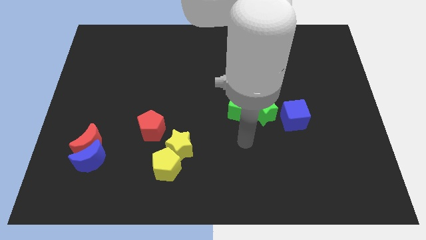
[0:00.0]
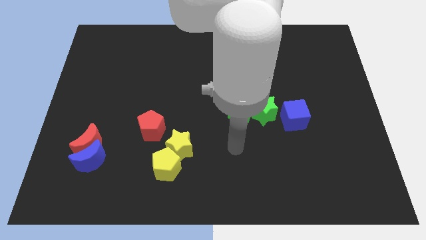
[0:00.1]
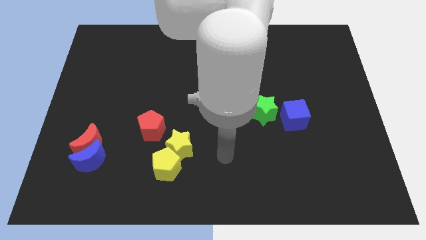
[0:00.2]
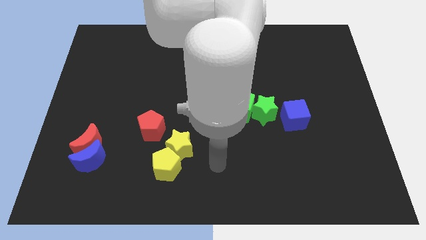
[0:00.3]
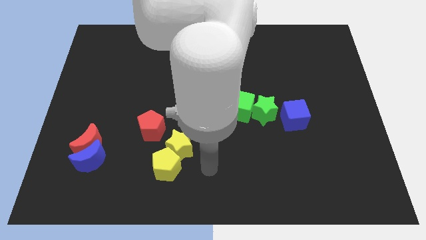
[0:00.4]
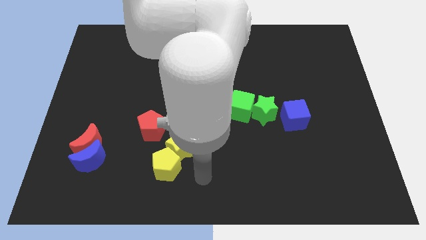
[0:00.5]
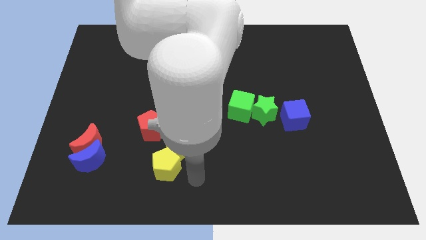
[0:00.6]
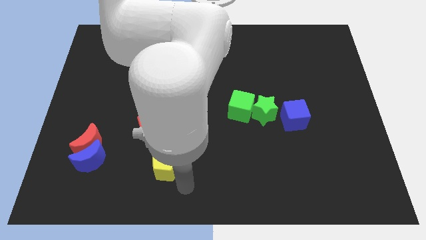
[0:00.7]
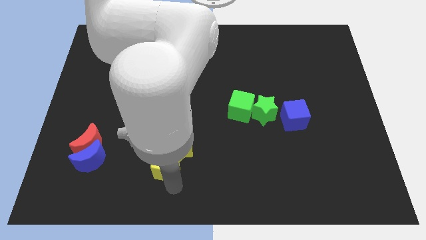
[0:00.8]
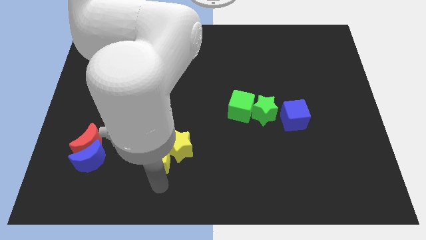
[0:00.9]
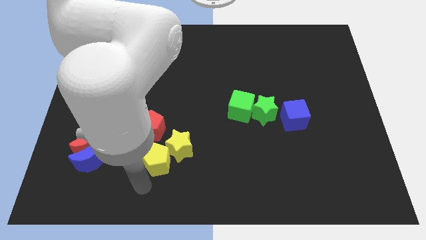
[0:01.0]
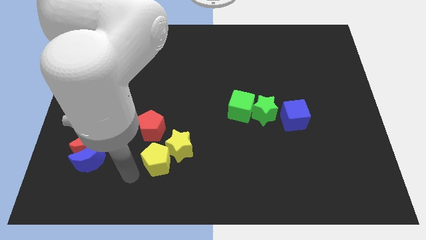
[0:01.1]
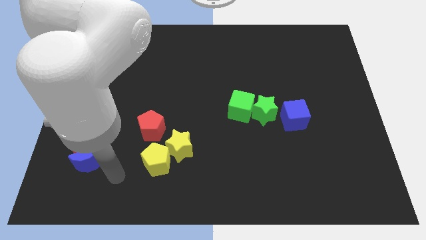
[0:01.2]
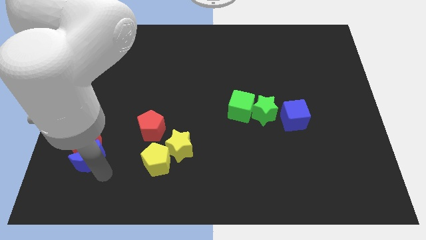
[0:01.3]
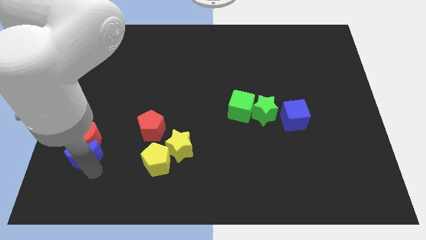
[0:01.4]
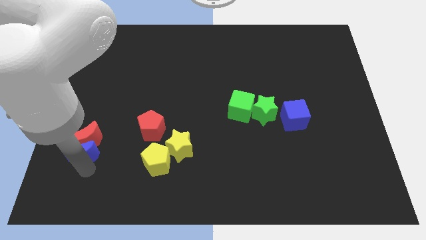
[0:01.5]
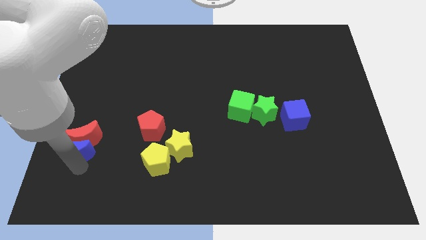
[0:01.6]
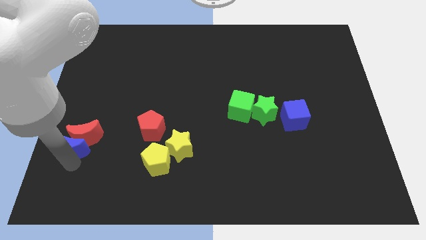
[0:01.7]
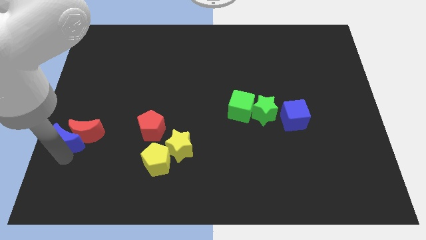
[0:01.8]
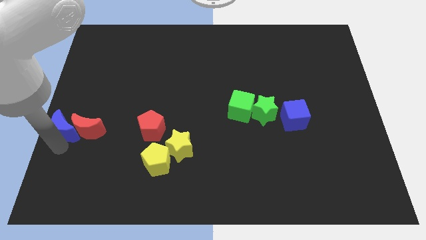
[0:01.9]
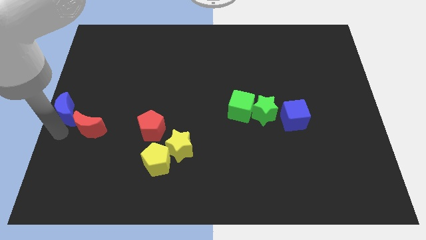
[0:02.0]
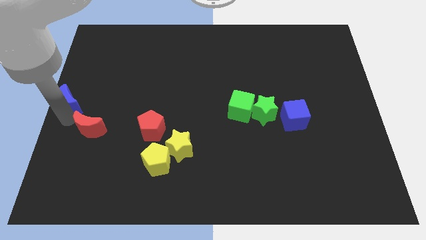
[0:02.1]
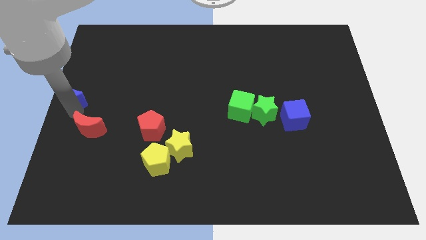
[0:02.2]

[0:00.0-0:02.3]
pull the red moon apart from the blue moon

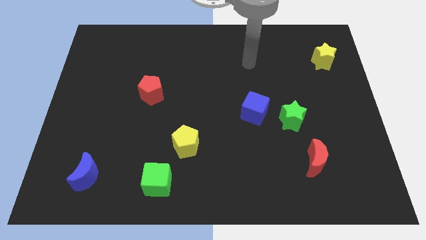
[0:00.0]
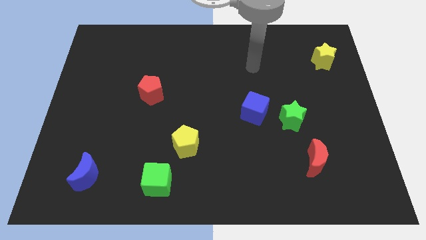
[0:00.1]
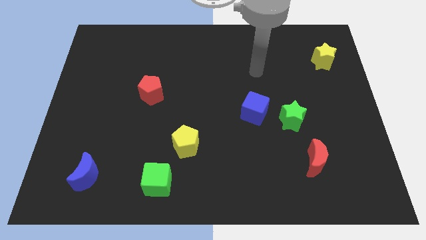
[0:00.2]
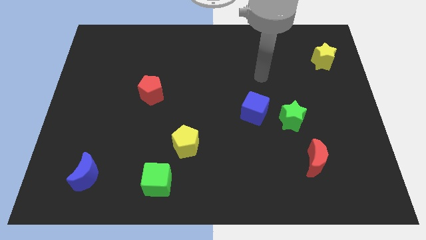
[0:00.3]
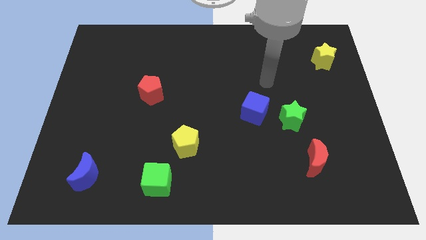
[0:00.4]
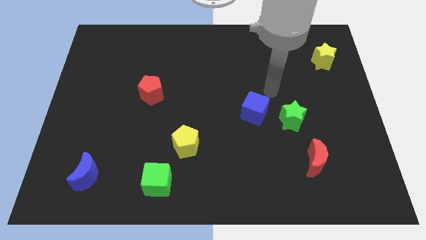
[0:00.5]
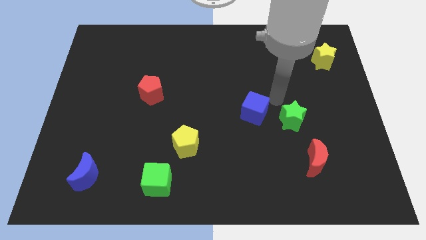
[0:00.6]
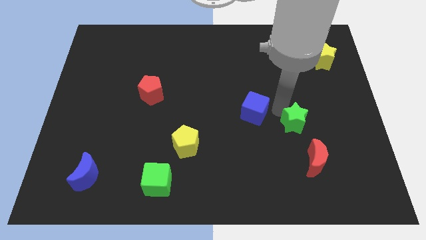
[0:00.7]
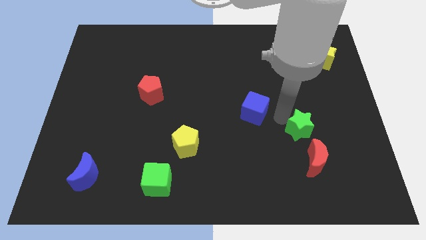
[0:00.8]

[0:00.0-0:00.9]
pull the blue cube apart from the green star

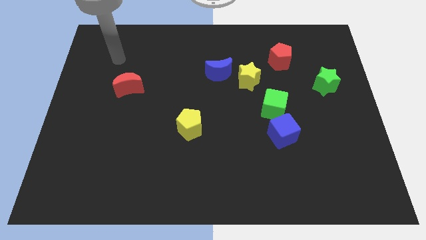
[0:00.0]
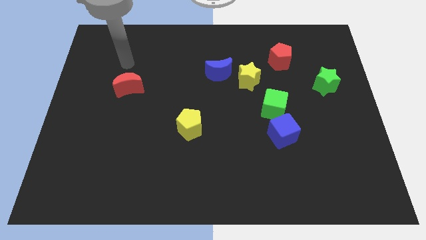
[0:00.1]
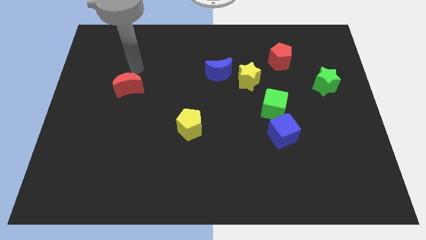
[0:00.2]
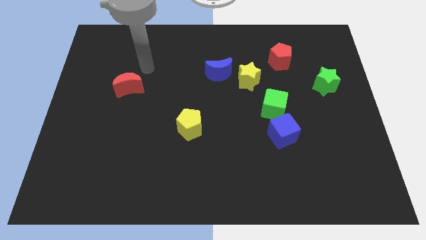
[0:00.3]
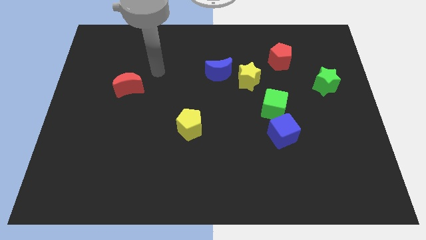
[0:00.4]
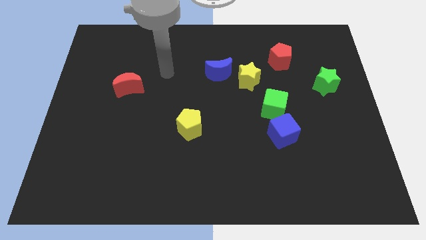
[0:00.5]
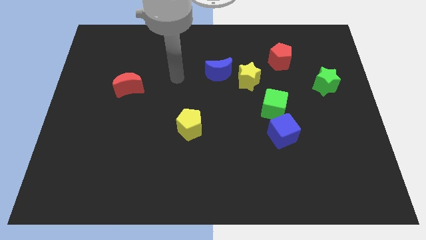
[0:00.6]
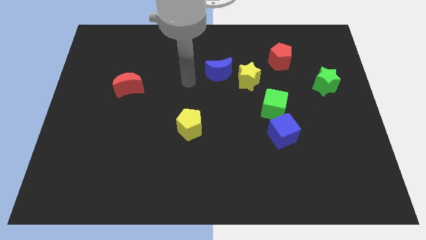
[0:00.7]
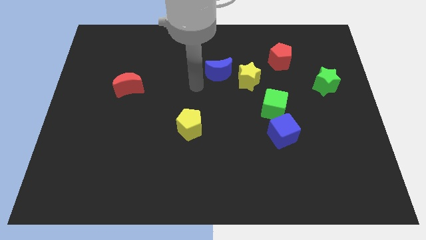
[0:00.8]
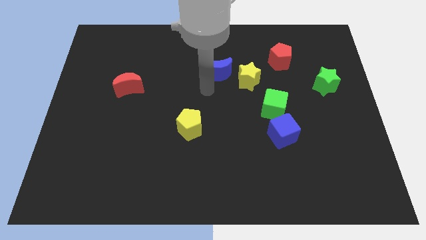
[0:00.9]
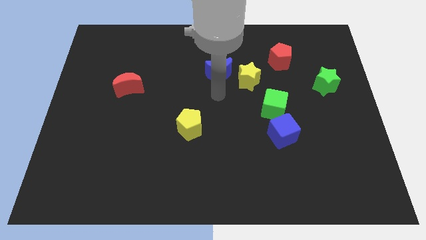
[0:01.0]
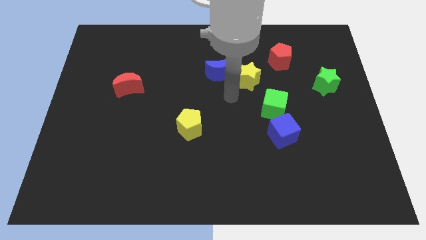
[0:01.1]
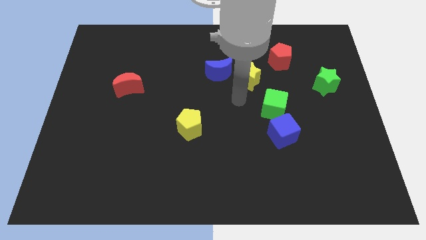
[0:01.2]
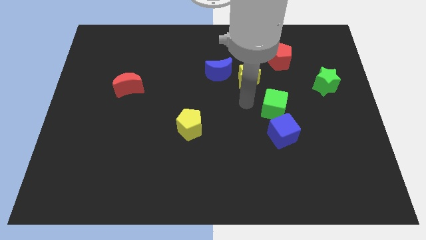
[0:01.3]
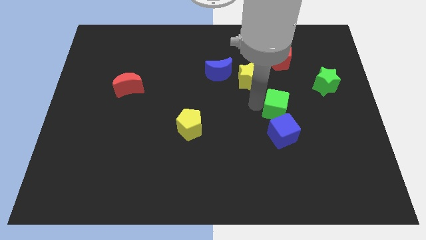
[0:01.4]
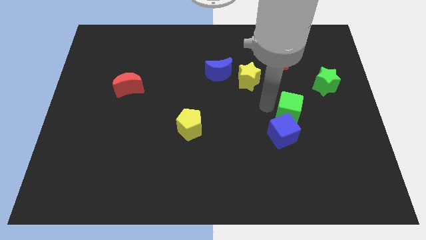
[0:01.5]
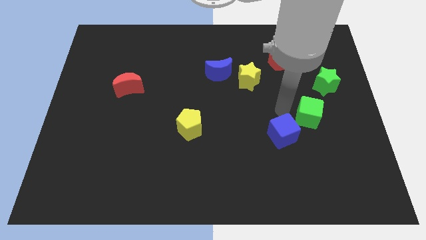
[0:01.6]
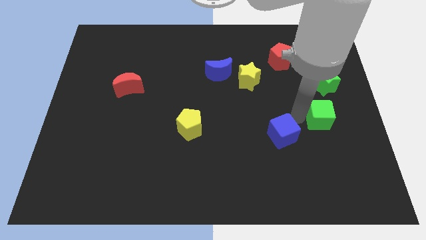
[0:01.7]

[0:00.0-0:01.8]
pull the blue cube apart from the green cube

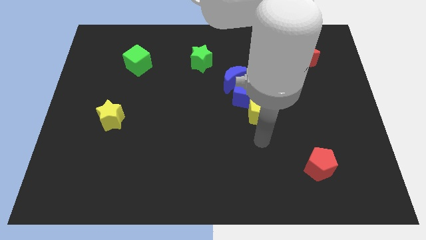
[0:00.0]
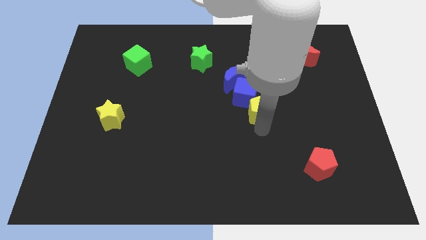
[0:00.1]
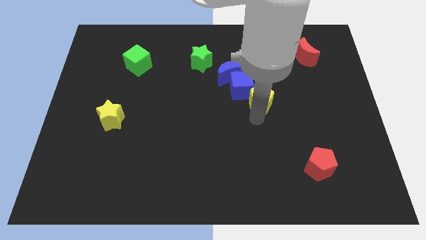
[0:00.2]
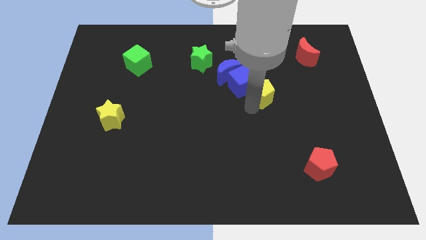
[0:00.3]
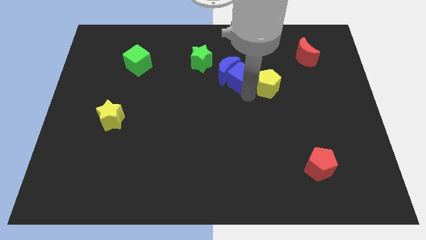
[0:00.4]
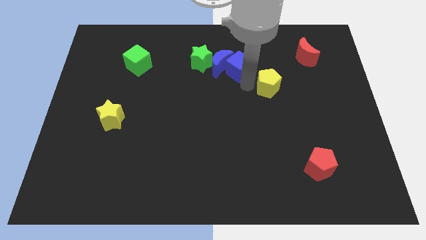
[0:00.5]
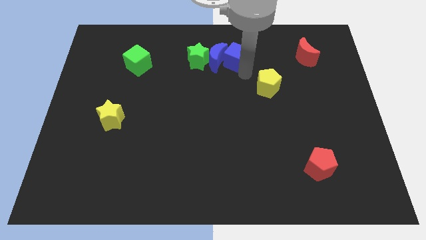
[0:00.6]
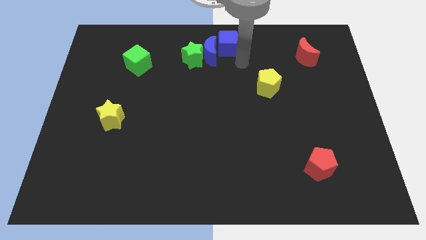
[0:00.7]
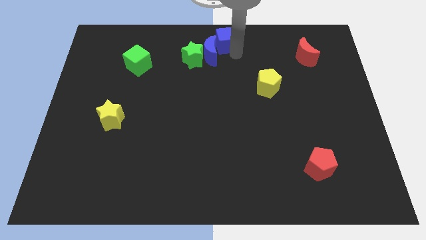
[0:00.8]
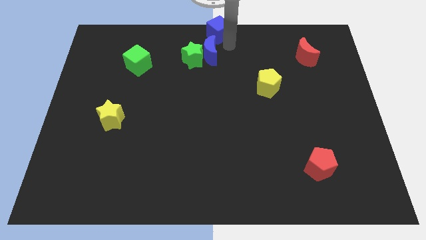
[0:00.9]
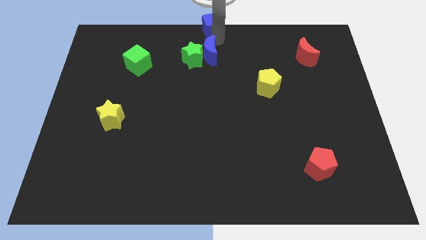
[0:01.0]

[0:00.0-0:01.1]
move the blue moon away from the blue cube

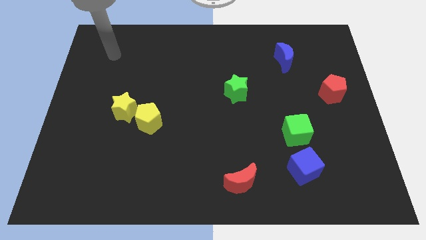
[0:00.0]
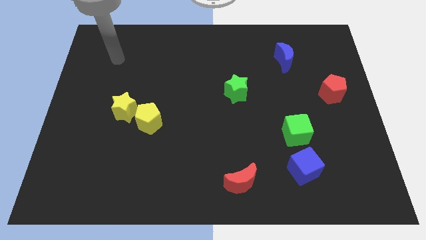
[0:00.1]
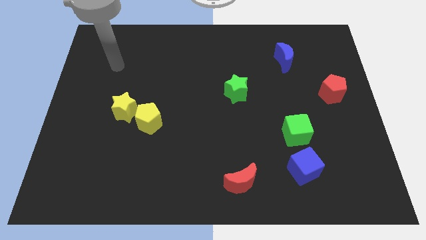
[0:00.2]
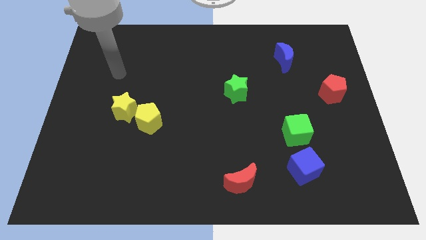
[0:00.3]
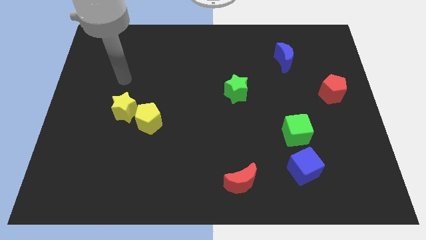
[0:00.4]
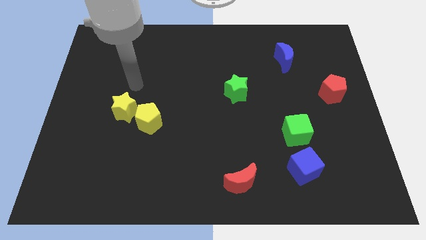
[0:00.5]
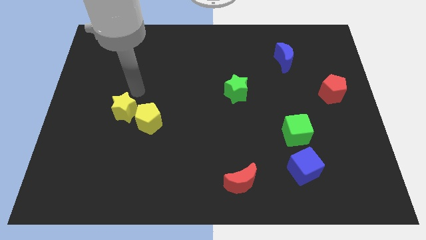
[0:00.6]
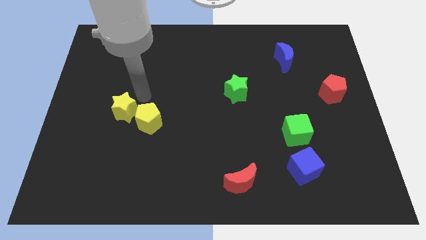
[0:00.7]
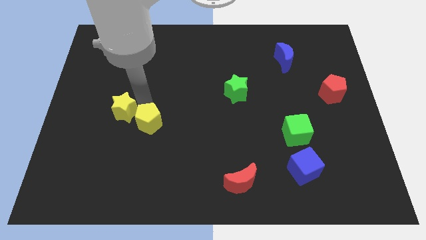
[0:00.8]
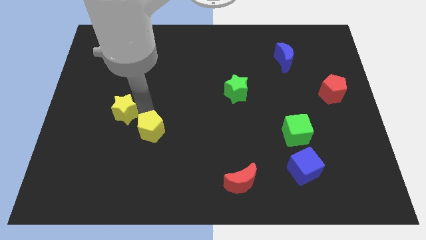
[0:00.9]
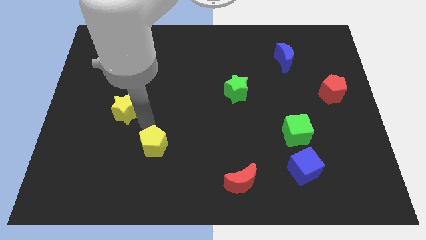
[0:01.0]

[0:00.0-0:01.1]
move the yellow star away from the yellow pentagon

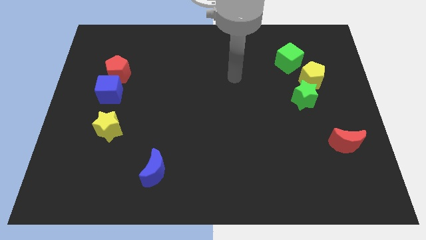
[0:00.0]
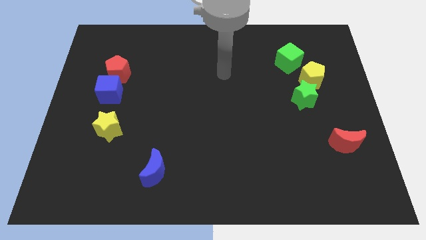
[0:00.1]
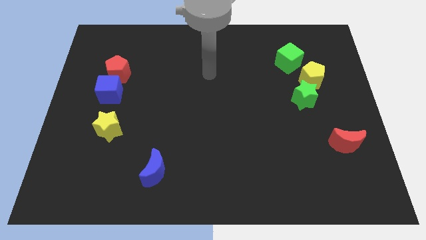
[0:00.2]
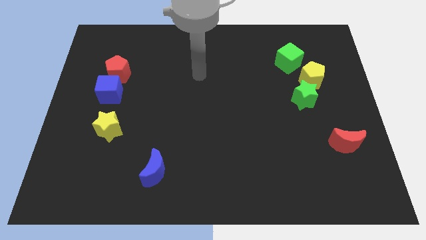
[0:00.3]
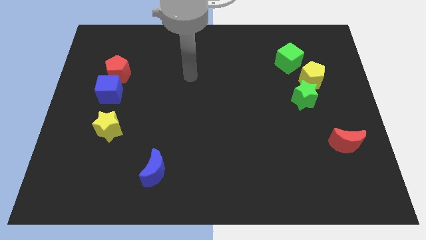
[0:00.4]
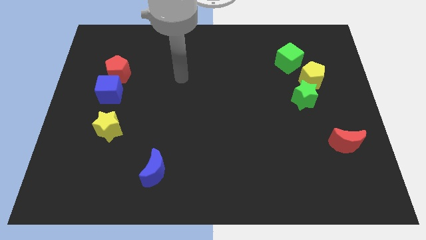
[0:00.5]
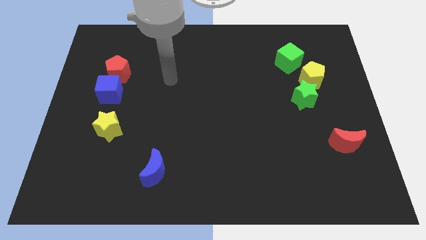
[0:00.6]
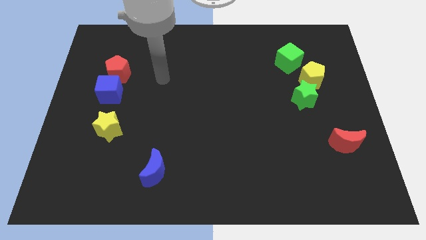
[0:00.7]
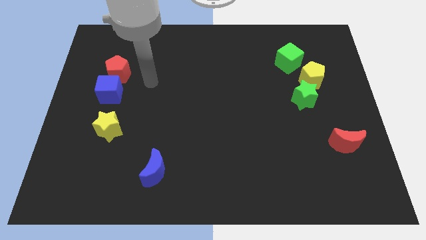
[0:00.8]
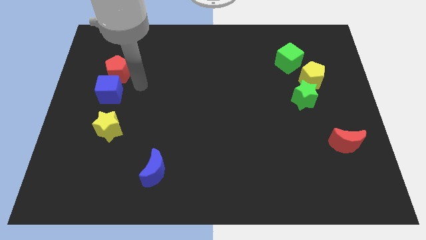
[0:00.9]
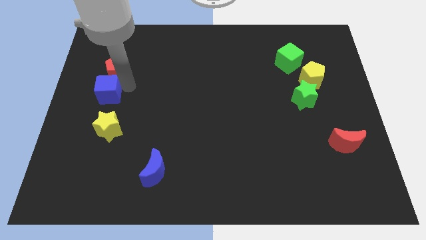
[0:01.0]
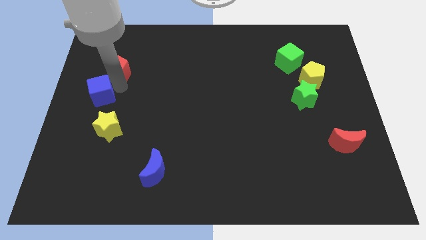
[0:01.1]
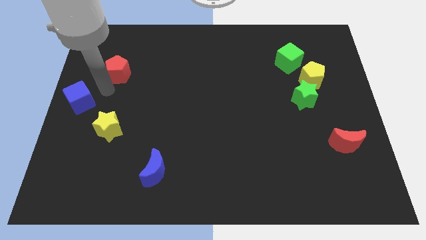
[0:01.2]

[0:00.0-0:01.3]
separate the red pentagon from the blue cube

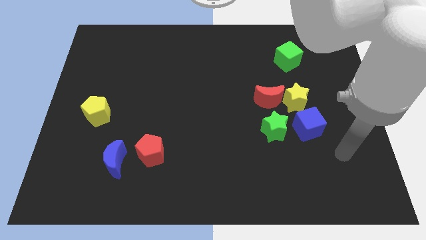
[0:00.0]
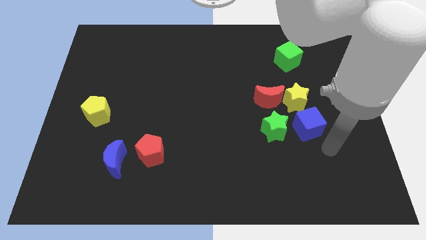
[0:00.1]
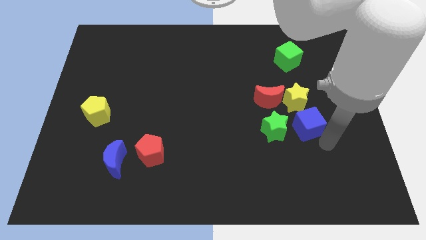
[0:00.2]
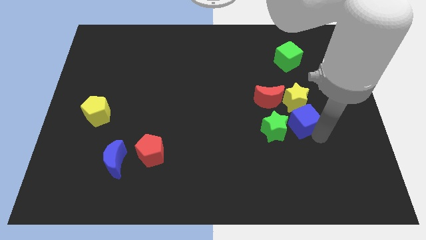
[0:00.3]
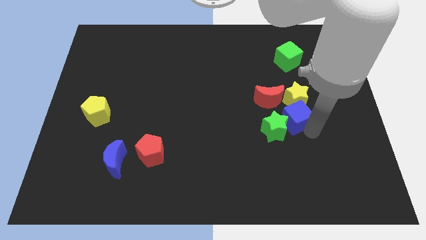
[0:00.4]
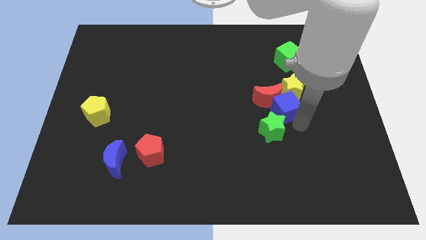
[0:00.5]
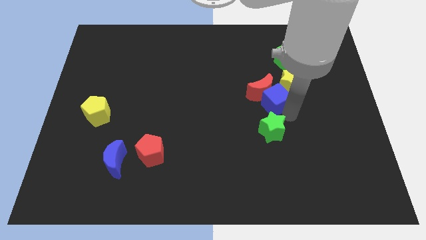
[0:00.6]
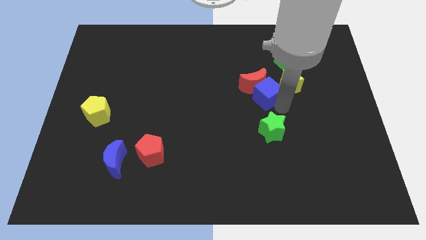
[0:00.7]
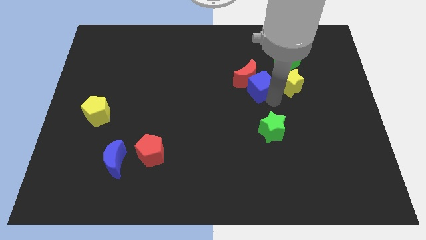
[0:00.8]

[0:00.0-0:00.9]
separate the red moon from the yellow star and green star
